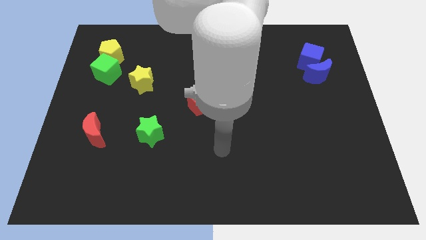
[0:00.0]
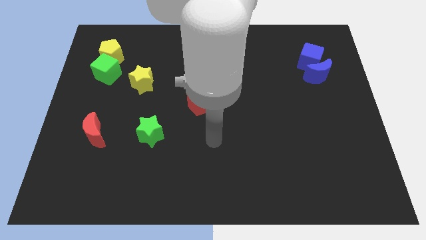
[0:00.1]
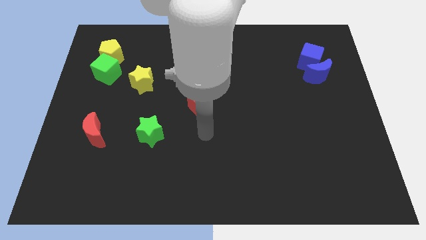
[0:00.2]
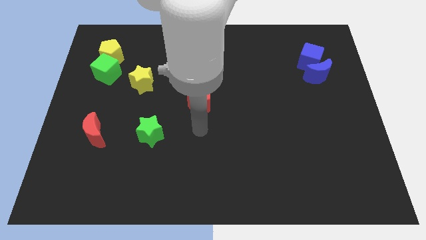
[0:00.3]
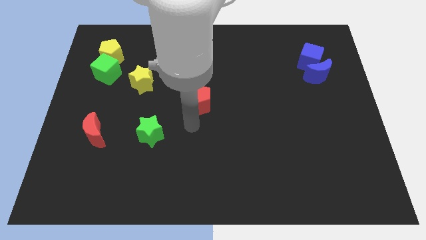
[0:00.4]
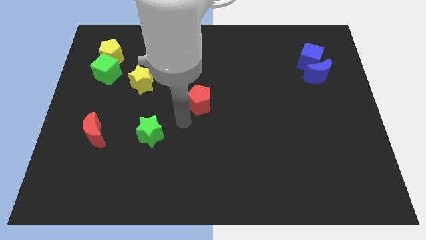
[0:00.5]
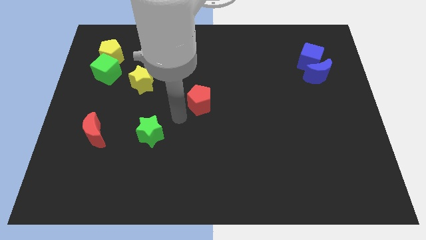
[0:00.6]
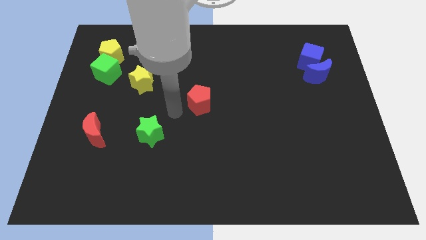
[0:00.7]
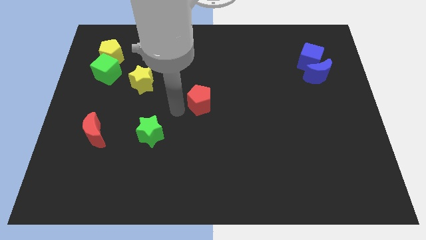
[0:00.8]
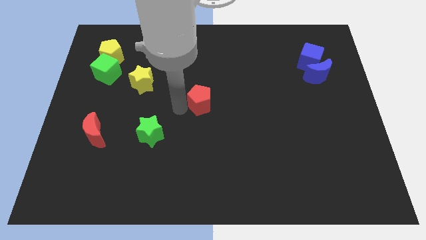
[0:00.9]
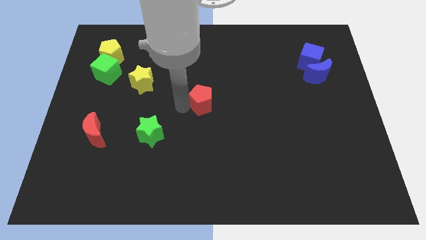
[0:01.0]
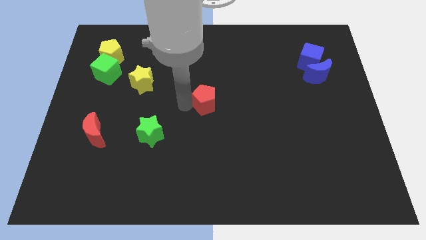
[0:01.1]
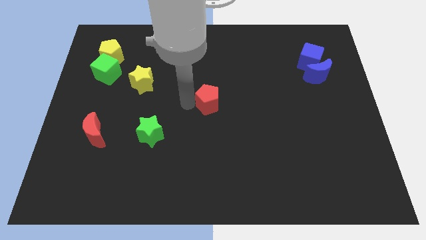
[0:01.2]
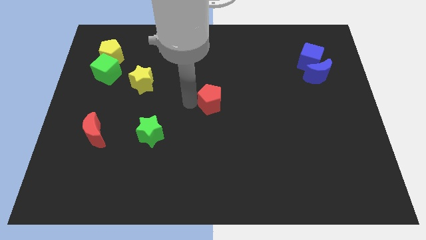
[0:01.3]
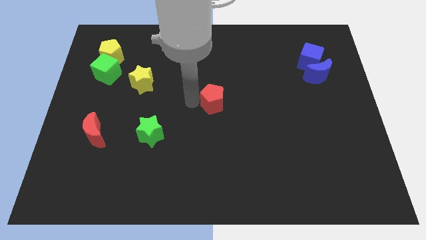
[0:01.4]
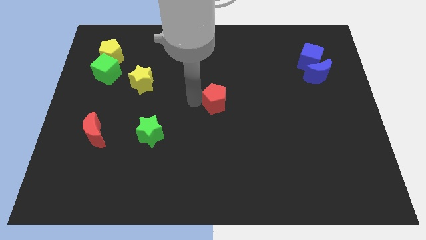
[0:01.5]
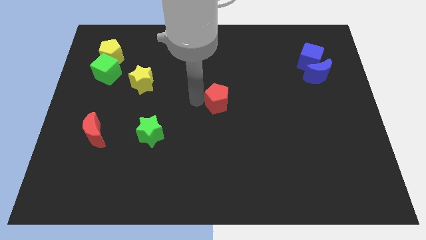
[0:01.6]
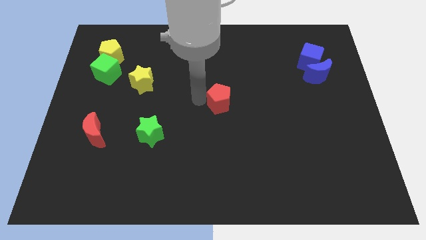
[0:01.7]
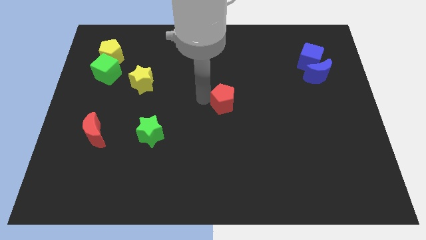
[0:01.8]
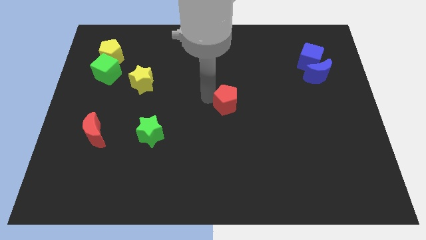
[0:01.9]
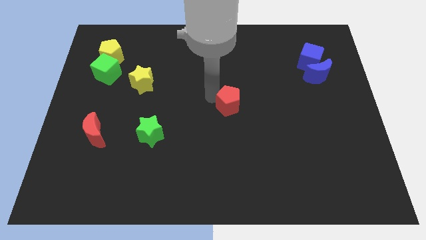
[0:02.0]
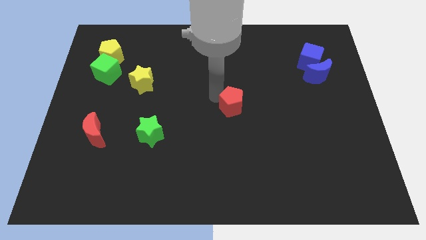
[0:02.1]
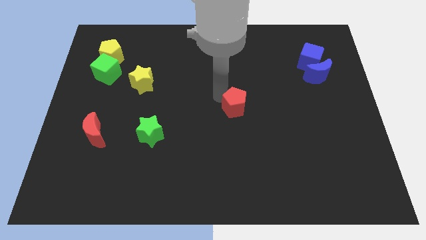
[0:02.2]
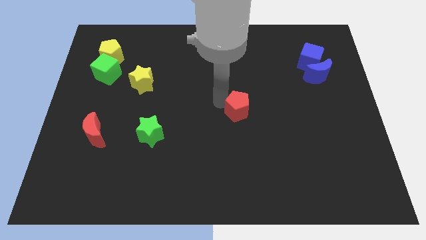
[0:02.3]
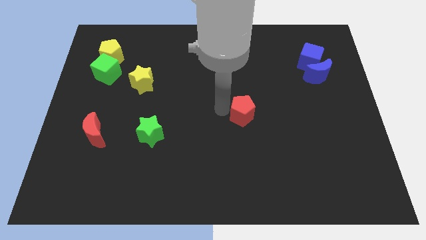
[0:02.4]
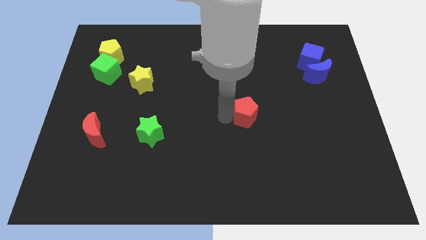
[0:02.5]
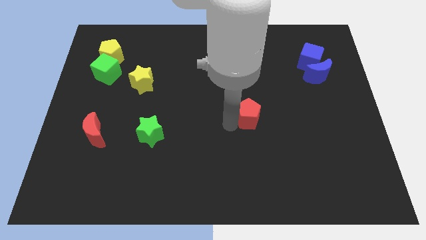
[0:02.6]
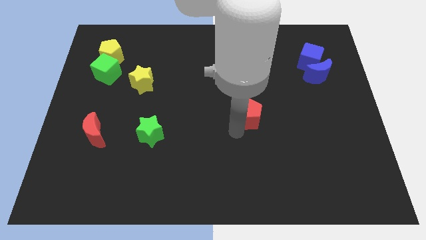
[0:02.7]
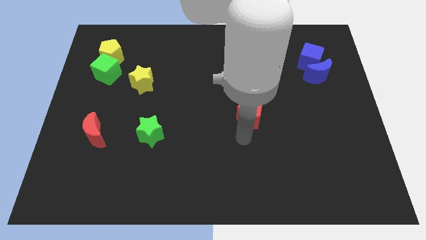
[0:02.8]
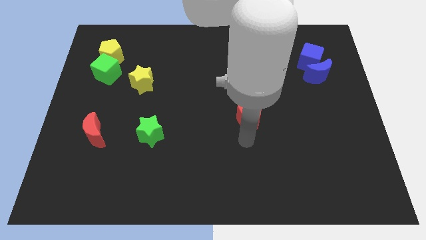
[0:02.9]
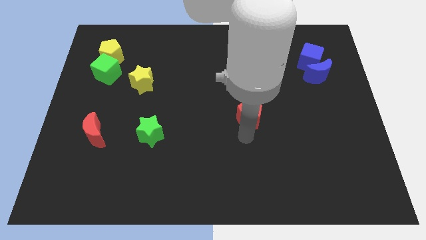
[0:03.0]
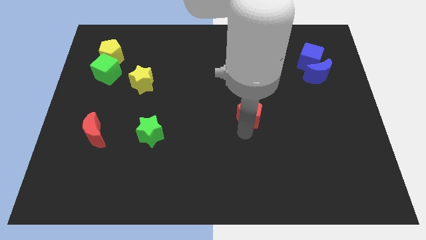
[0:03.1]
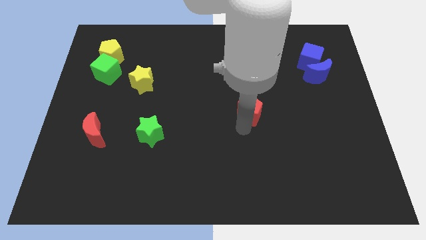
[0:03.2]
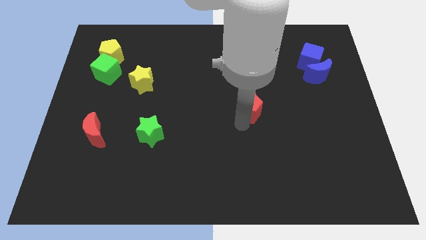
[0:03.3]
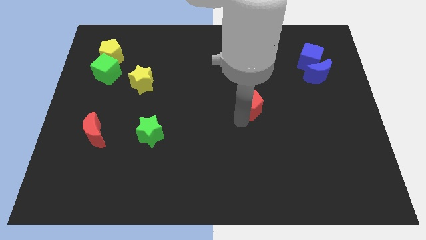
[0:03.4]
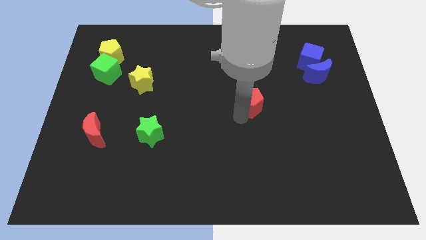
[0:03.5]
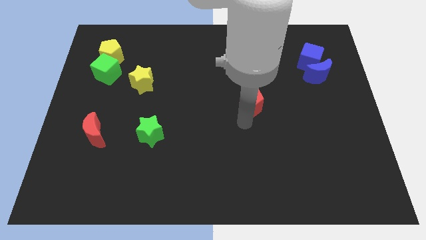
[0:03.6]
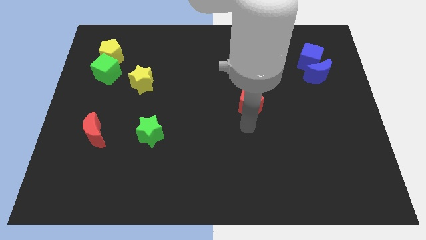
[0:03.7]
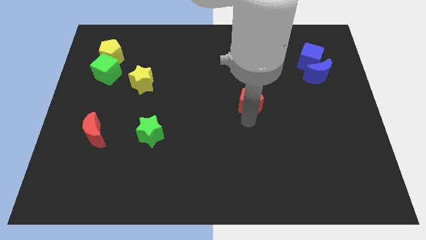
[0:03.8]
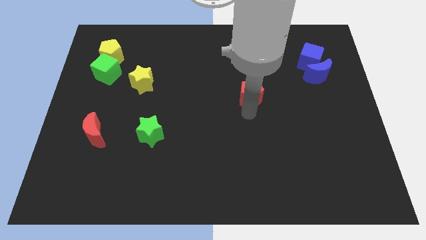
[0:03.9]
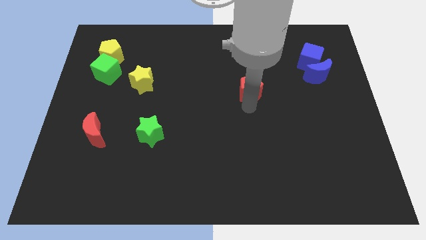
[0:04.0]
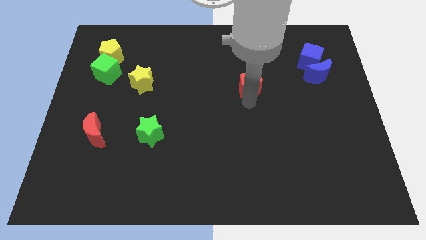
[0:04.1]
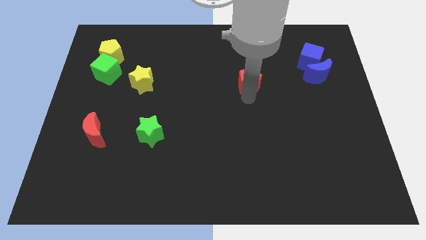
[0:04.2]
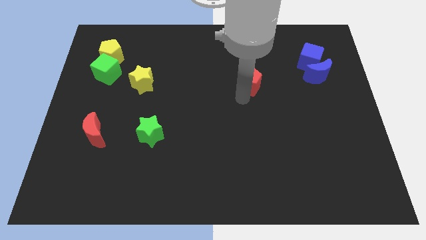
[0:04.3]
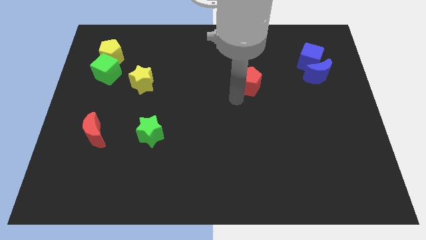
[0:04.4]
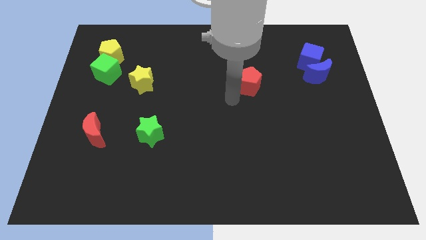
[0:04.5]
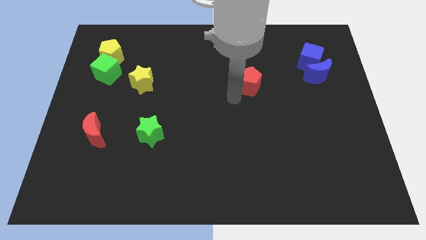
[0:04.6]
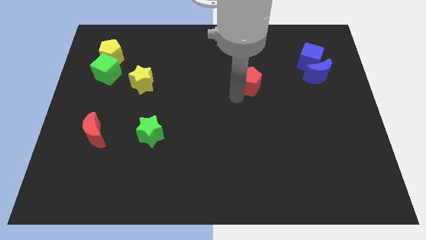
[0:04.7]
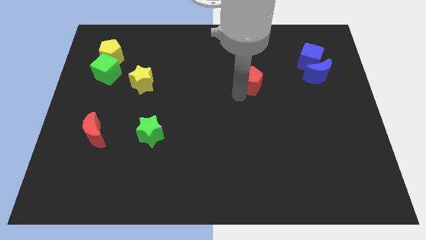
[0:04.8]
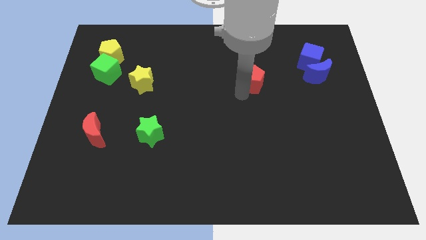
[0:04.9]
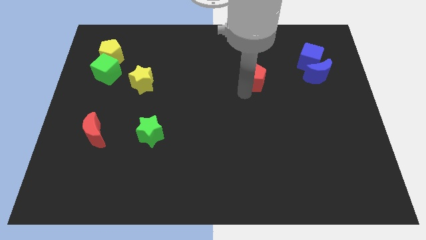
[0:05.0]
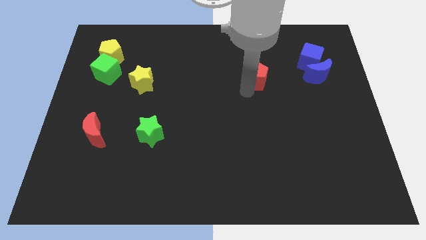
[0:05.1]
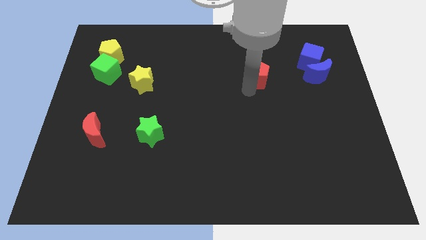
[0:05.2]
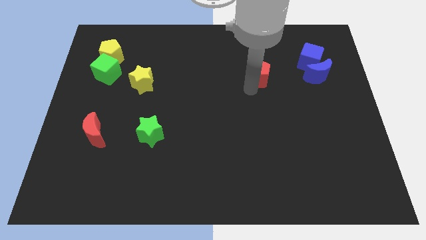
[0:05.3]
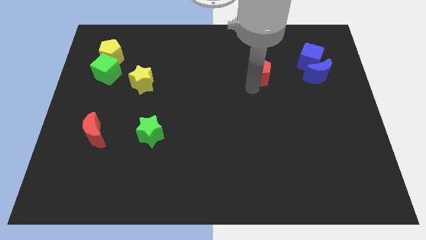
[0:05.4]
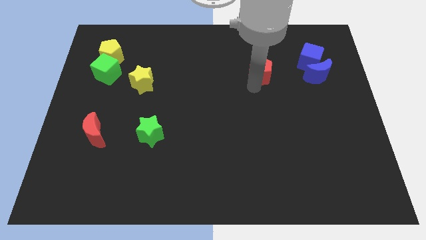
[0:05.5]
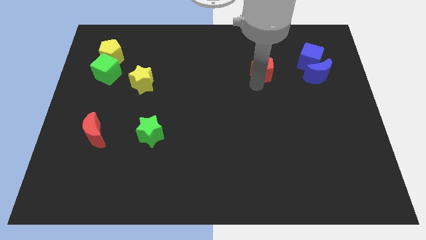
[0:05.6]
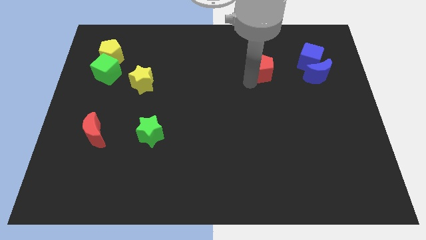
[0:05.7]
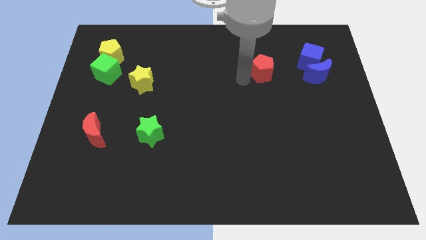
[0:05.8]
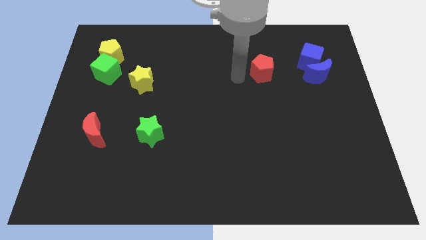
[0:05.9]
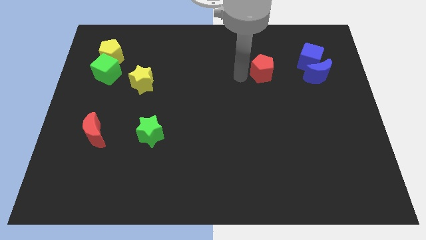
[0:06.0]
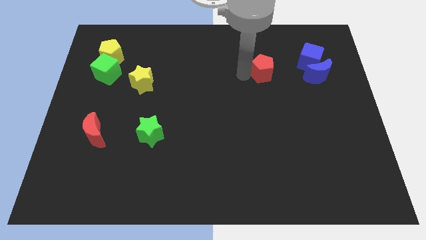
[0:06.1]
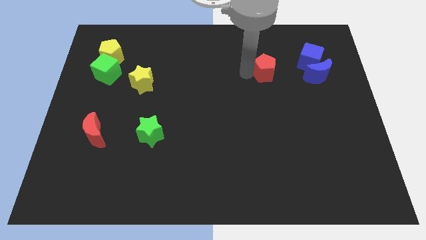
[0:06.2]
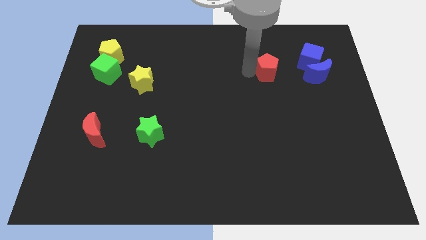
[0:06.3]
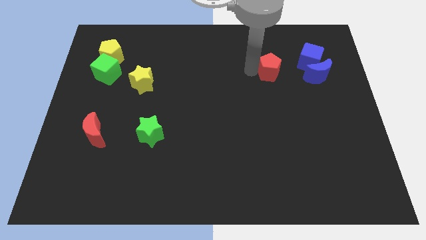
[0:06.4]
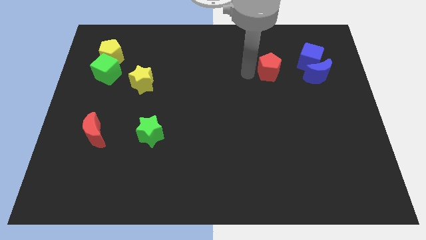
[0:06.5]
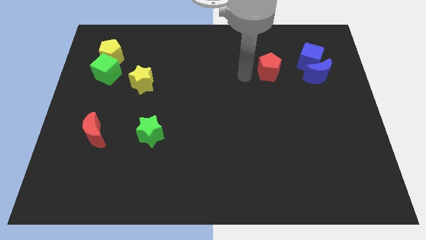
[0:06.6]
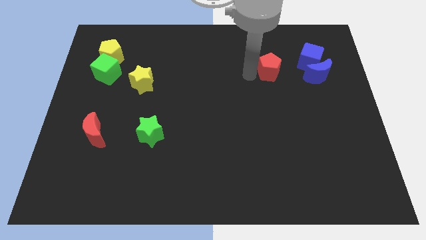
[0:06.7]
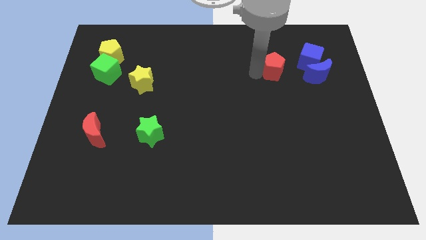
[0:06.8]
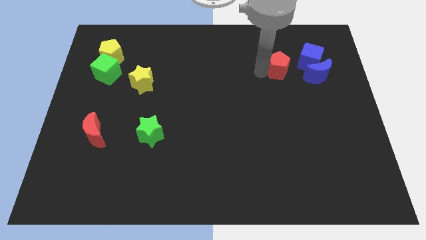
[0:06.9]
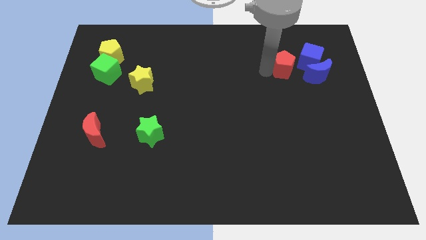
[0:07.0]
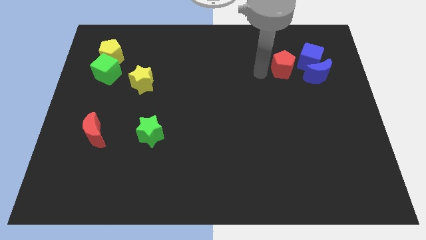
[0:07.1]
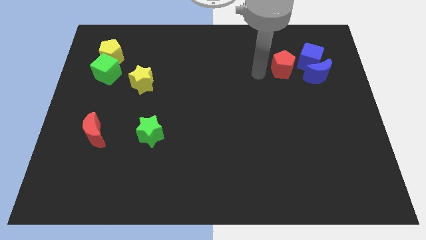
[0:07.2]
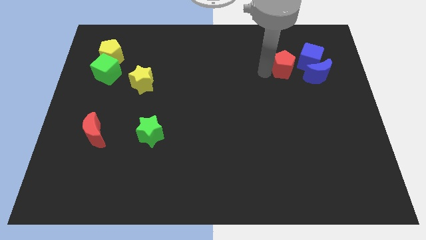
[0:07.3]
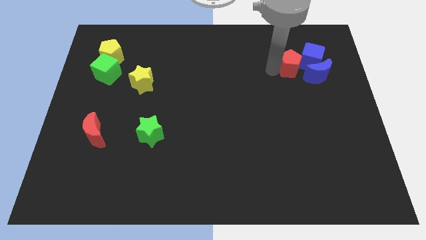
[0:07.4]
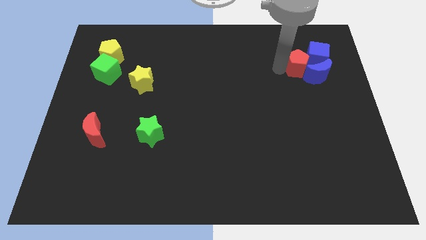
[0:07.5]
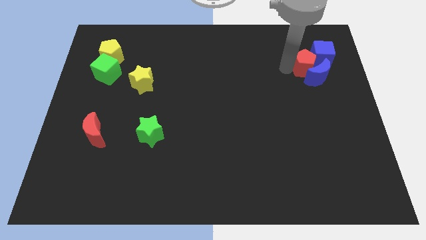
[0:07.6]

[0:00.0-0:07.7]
move the red pentagon to the blue cube
